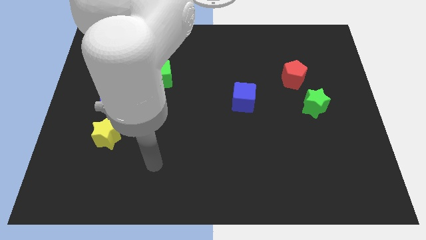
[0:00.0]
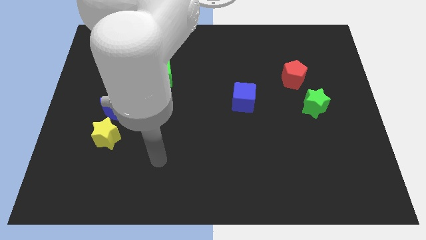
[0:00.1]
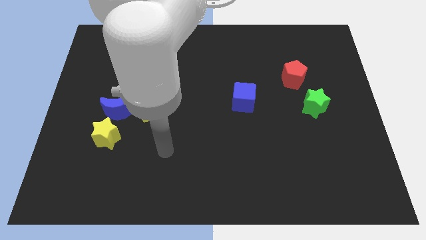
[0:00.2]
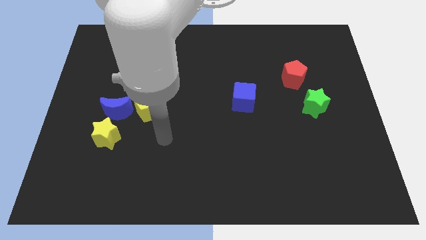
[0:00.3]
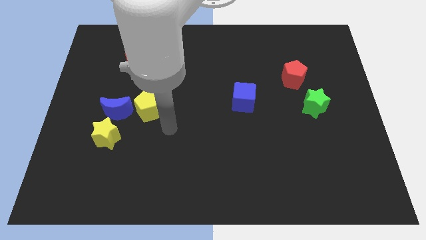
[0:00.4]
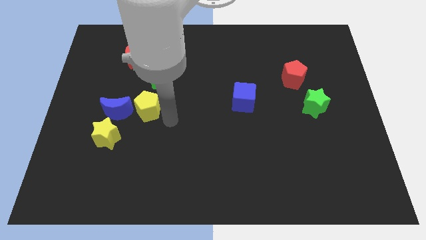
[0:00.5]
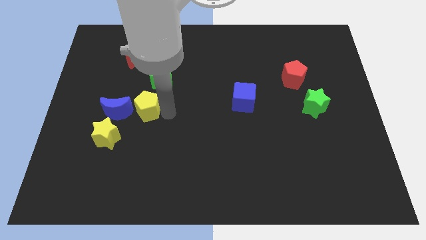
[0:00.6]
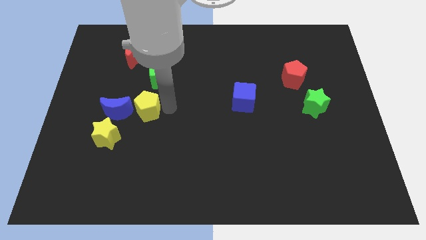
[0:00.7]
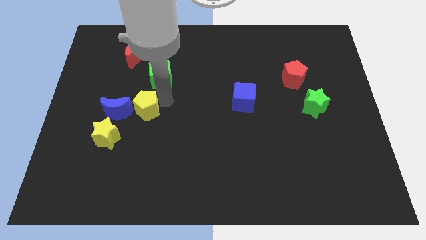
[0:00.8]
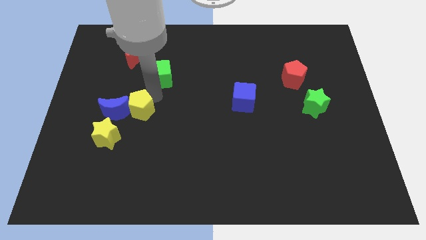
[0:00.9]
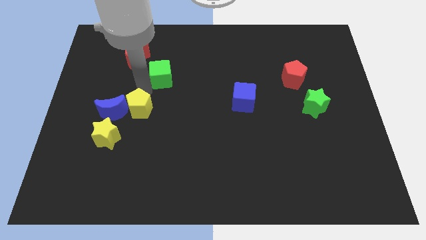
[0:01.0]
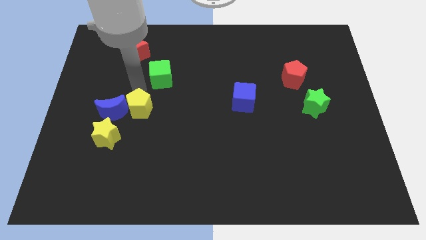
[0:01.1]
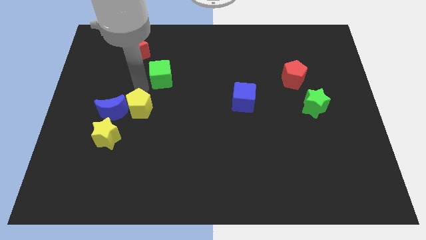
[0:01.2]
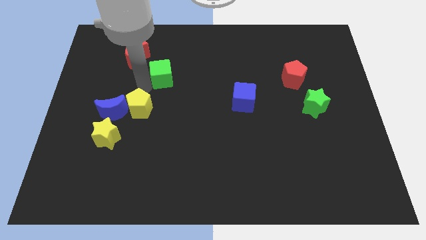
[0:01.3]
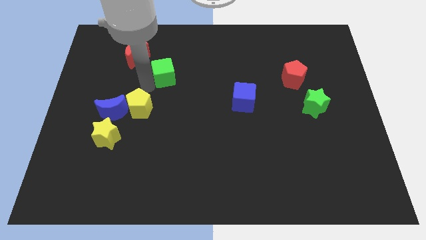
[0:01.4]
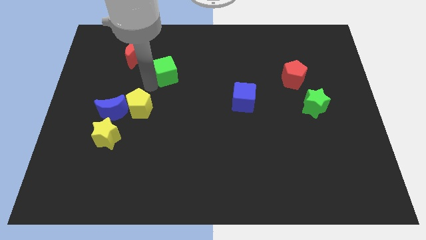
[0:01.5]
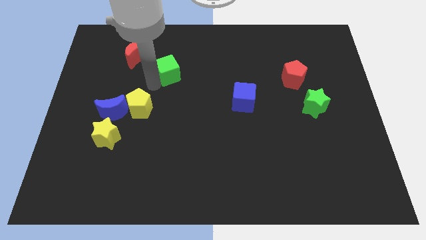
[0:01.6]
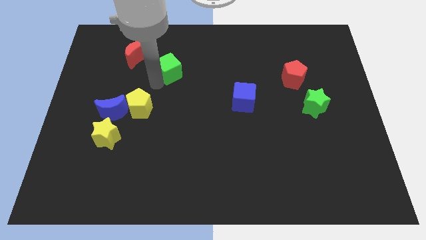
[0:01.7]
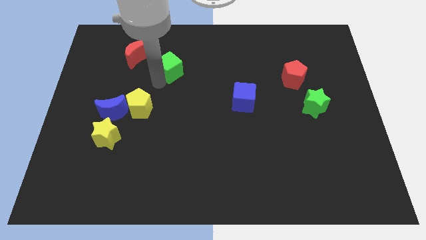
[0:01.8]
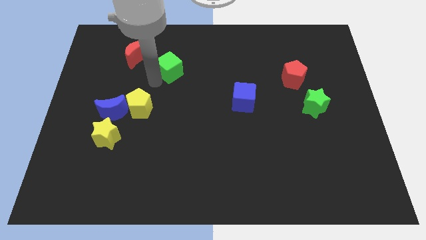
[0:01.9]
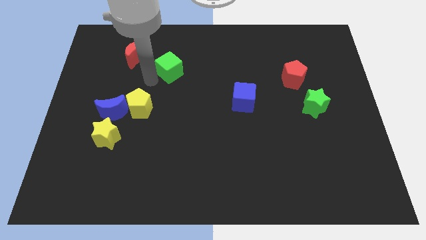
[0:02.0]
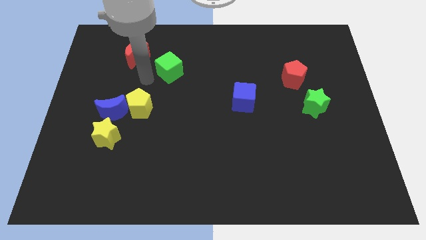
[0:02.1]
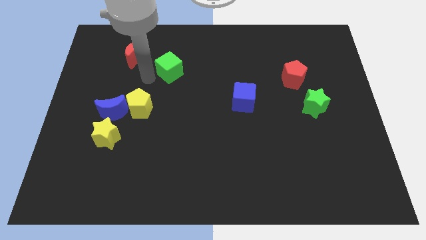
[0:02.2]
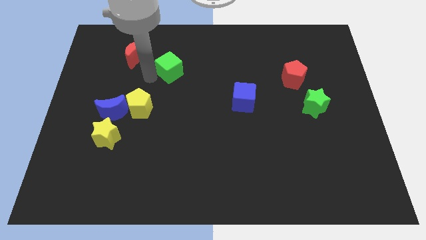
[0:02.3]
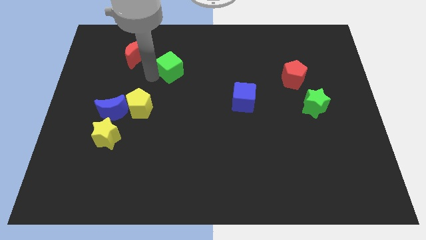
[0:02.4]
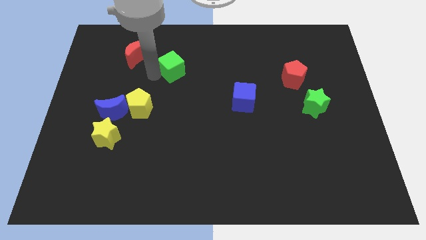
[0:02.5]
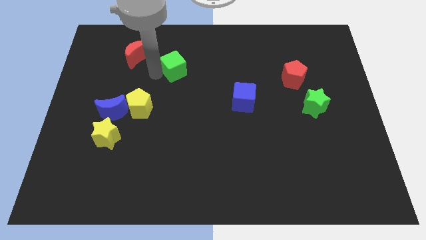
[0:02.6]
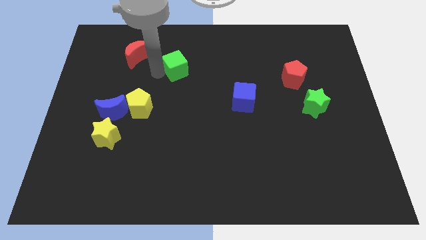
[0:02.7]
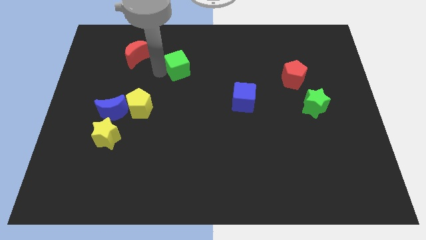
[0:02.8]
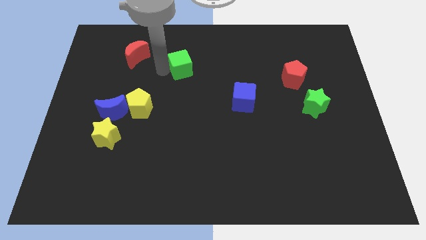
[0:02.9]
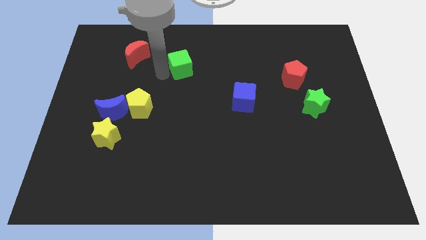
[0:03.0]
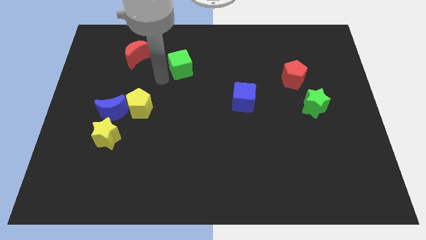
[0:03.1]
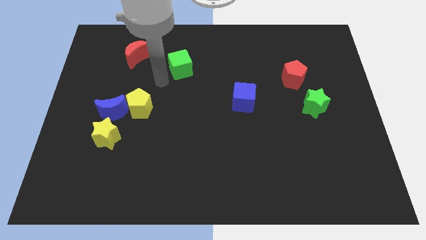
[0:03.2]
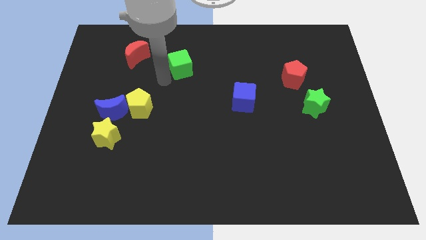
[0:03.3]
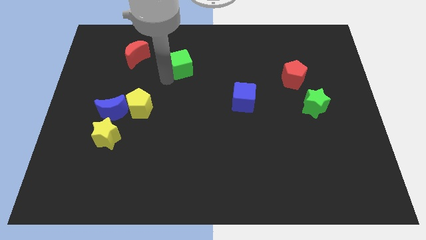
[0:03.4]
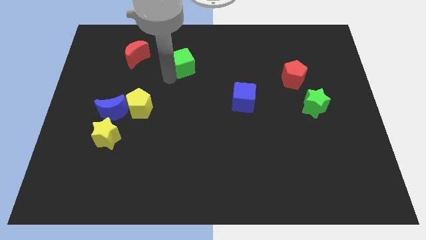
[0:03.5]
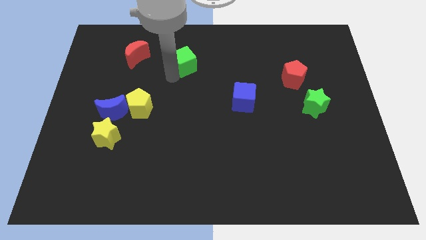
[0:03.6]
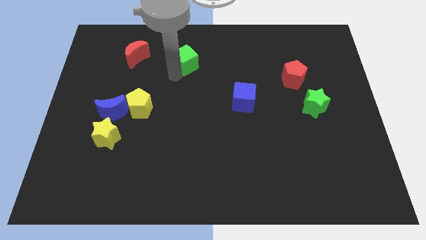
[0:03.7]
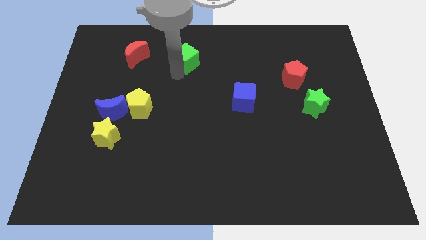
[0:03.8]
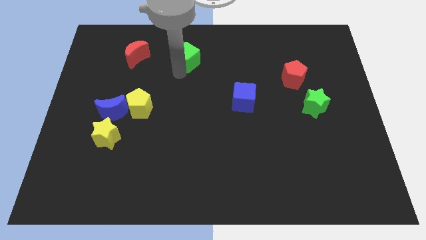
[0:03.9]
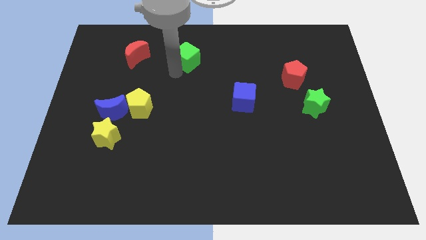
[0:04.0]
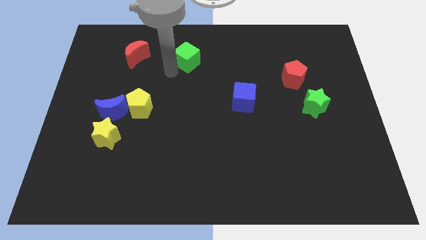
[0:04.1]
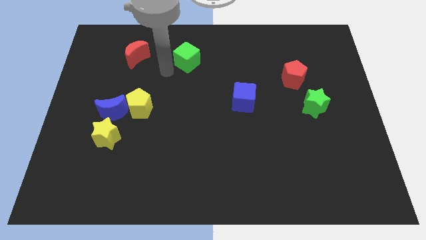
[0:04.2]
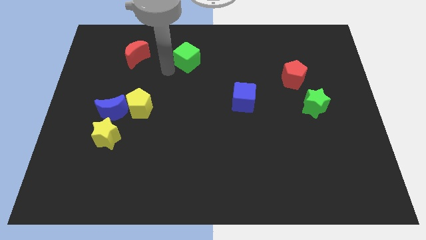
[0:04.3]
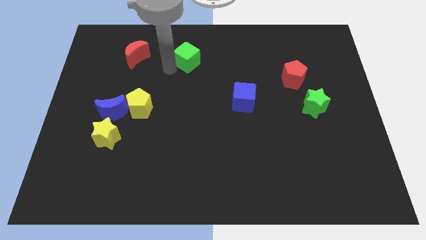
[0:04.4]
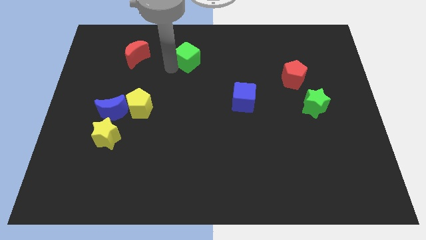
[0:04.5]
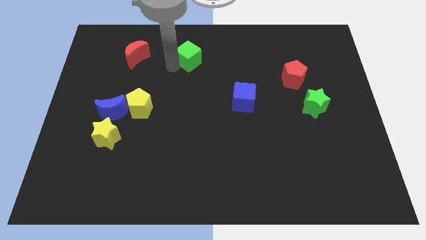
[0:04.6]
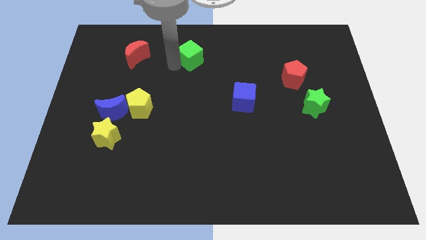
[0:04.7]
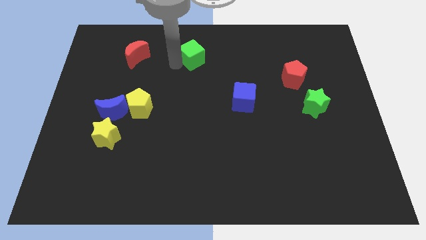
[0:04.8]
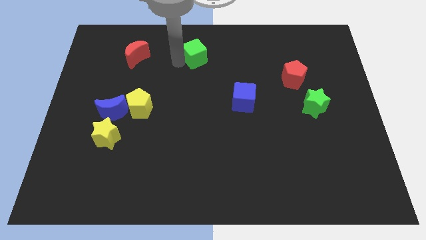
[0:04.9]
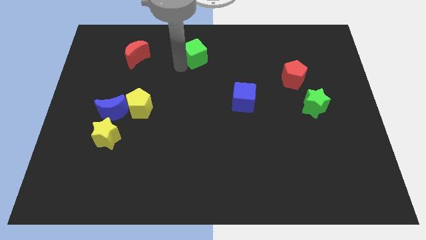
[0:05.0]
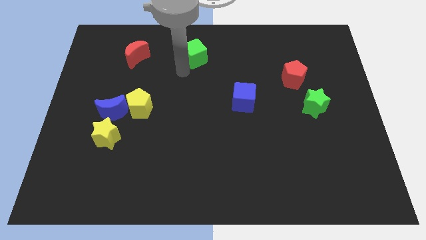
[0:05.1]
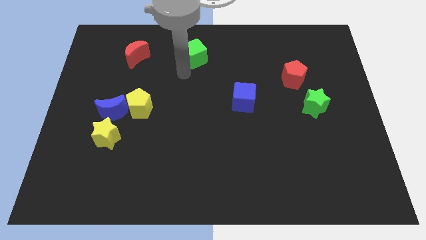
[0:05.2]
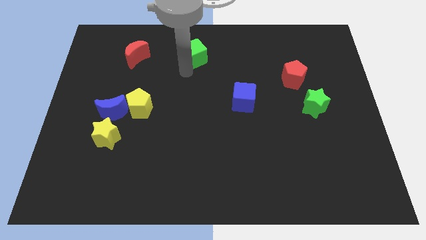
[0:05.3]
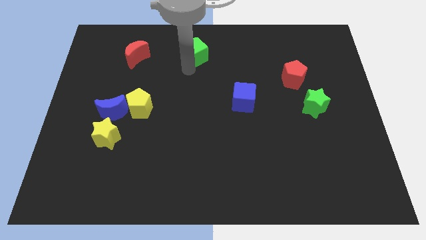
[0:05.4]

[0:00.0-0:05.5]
slide the green cube to the top side

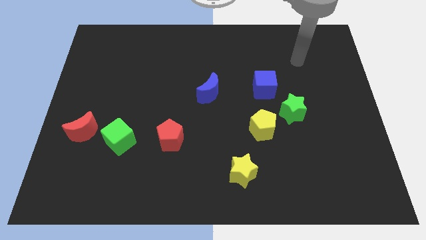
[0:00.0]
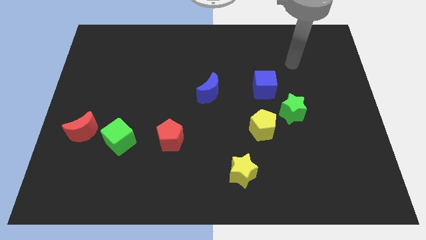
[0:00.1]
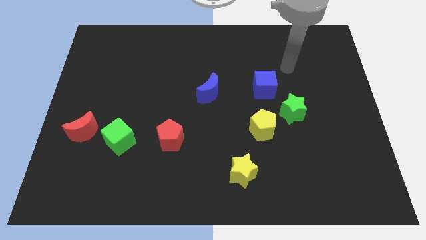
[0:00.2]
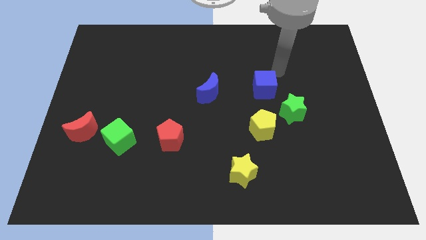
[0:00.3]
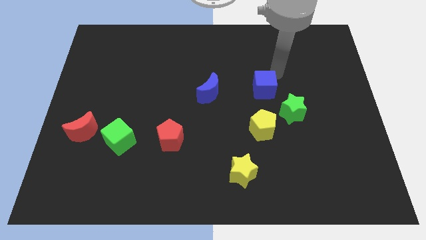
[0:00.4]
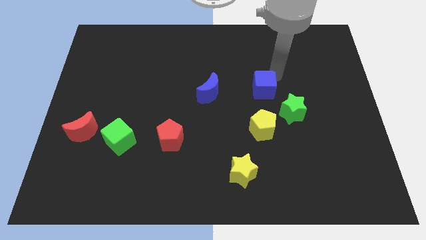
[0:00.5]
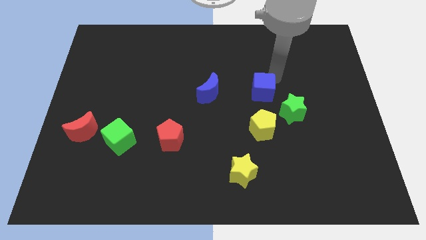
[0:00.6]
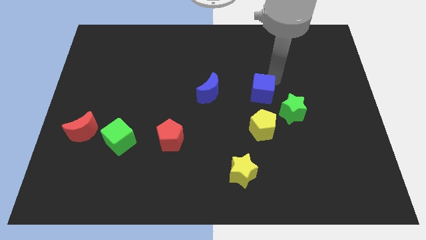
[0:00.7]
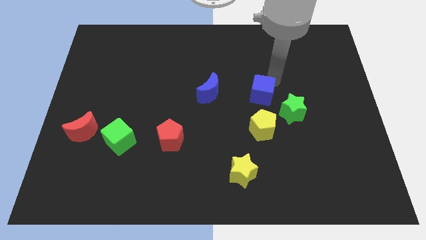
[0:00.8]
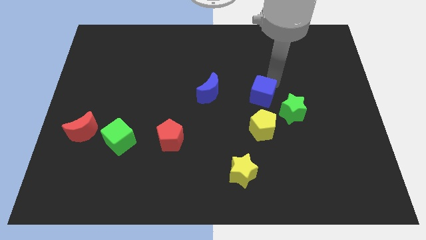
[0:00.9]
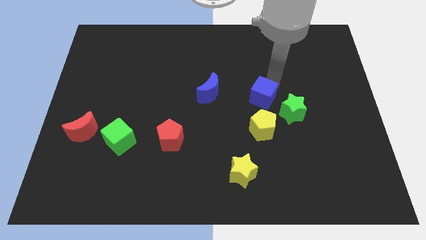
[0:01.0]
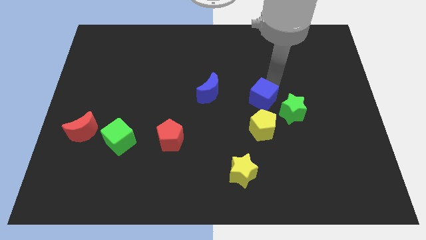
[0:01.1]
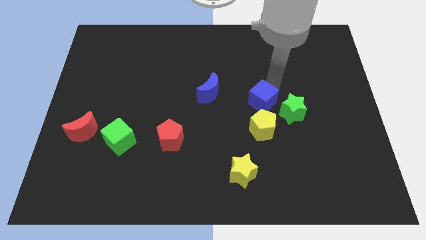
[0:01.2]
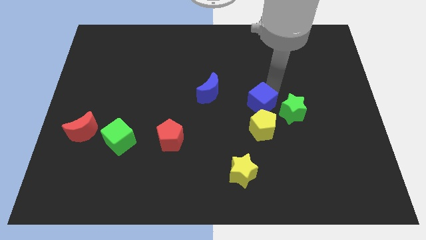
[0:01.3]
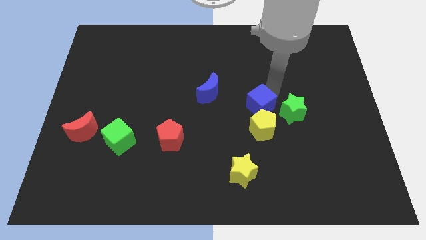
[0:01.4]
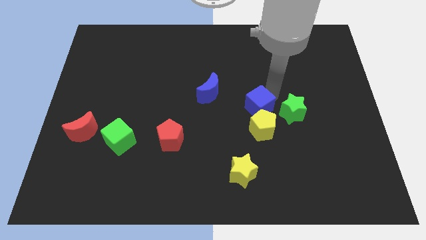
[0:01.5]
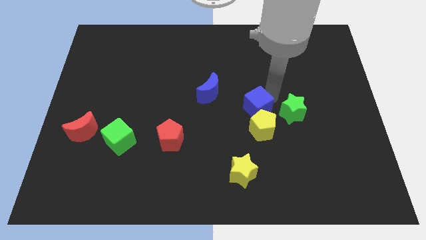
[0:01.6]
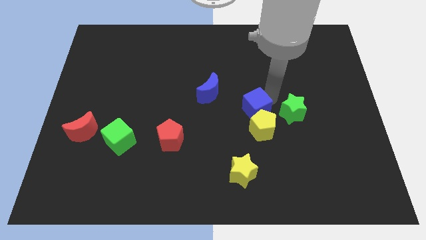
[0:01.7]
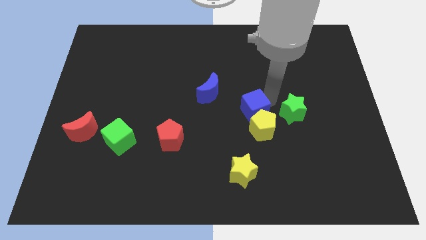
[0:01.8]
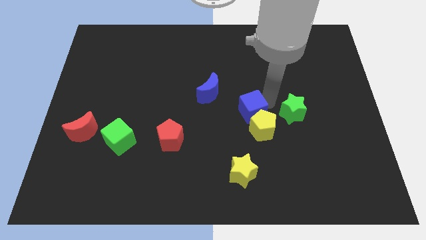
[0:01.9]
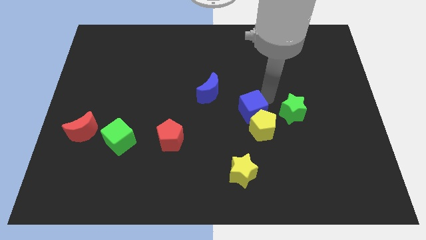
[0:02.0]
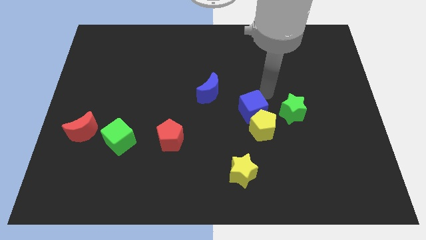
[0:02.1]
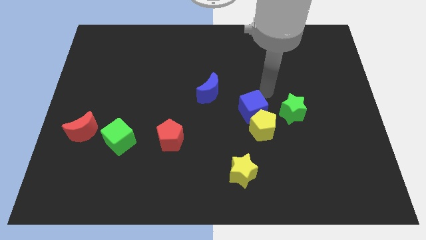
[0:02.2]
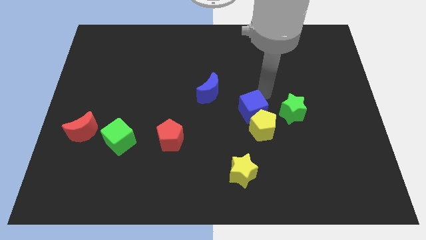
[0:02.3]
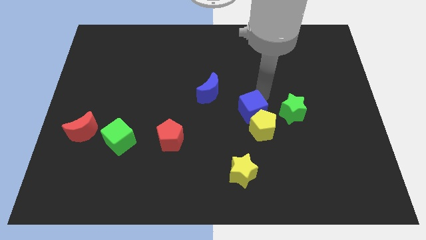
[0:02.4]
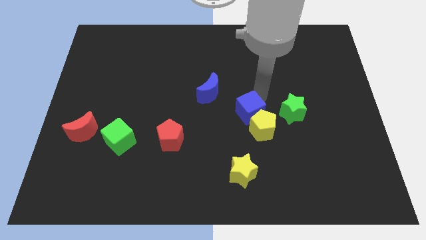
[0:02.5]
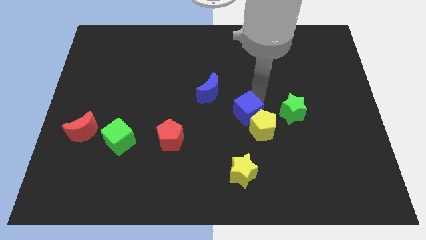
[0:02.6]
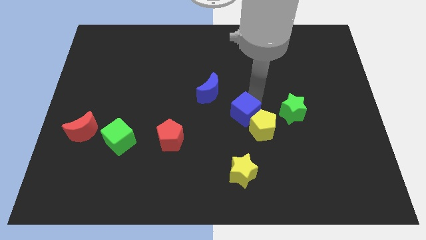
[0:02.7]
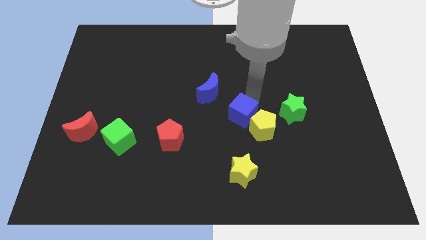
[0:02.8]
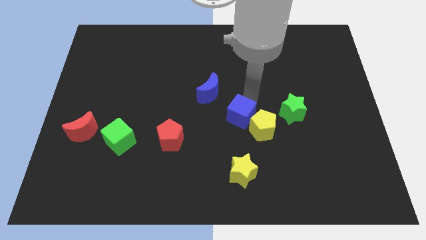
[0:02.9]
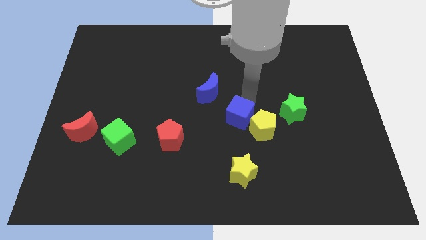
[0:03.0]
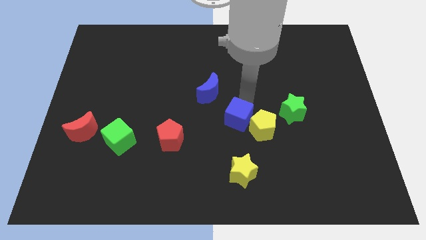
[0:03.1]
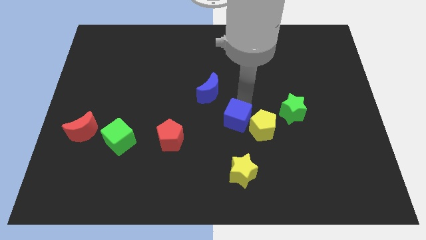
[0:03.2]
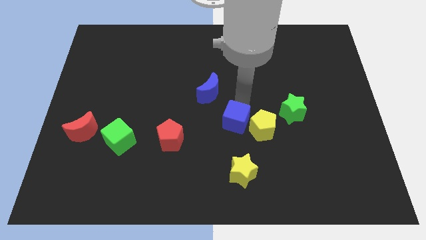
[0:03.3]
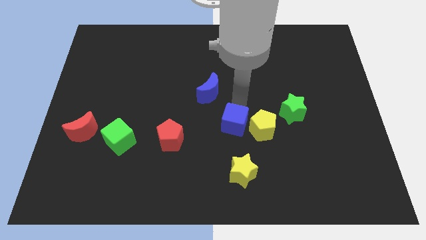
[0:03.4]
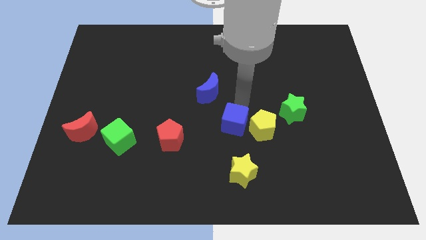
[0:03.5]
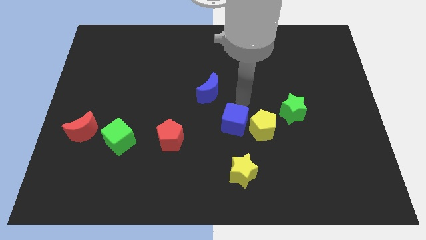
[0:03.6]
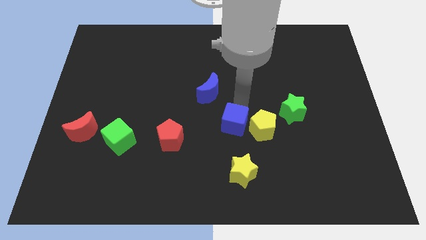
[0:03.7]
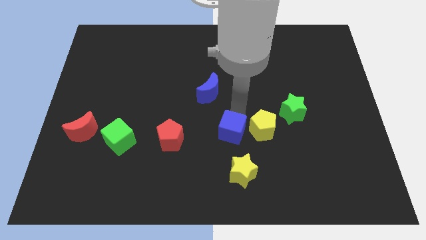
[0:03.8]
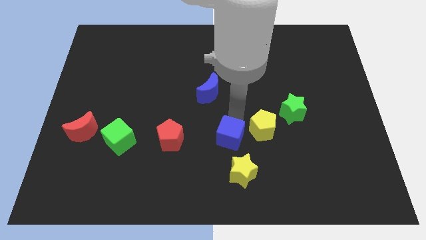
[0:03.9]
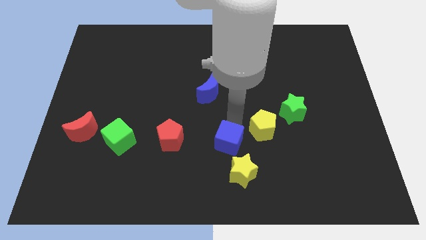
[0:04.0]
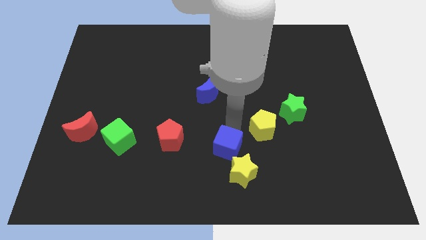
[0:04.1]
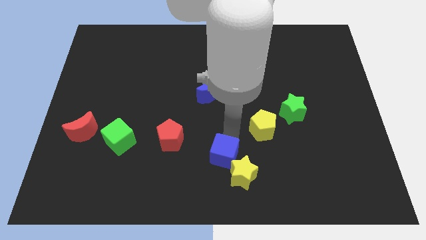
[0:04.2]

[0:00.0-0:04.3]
push the blue cube to the bottom side
